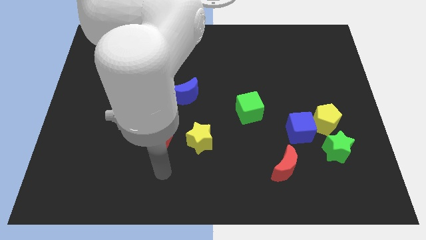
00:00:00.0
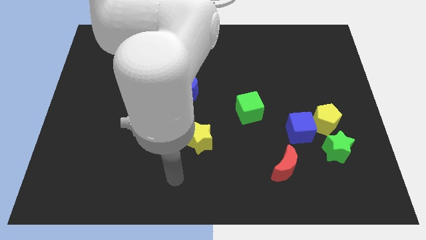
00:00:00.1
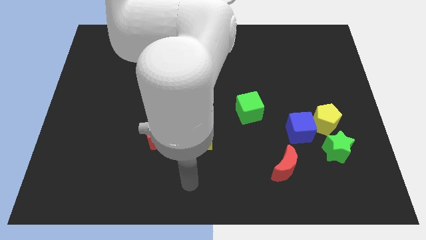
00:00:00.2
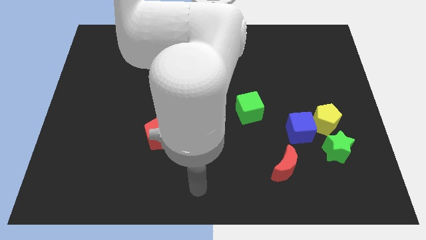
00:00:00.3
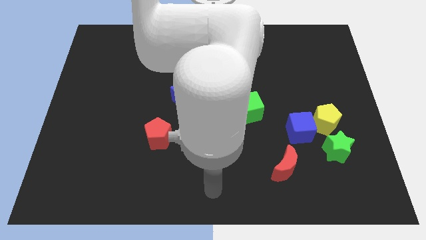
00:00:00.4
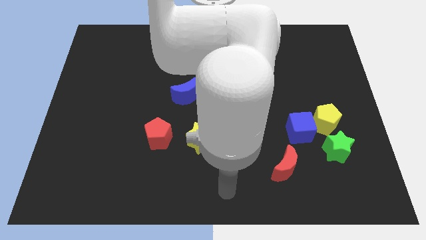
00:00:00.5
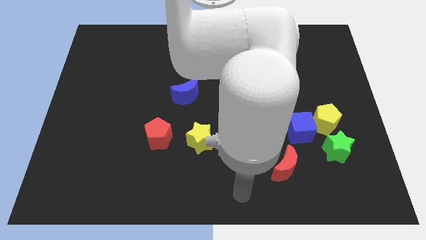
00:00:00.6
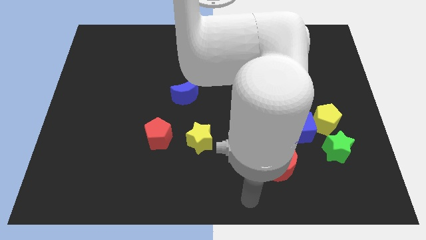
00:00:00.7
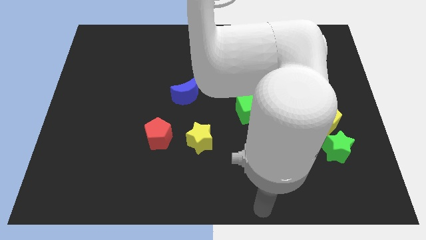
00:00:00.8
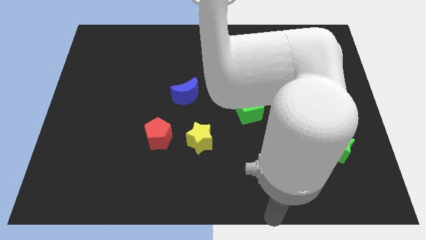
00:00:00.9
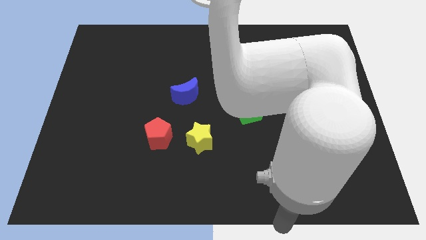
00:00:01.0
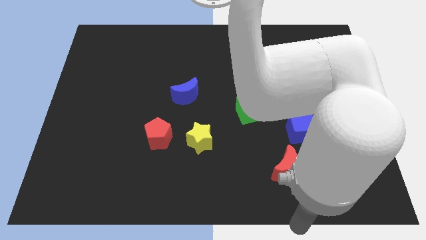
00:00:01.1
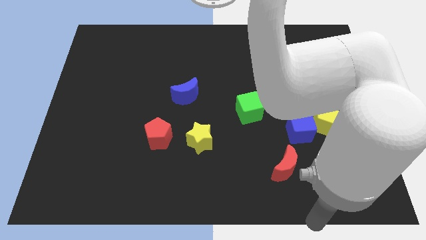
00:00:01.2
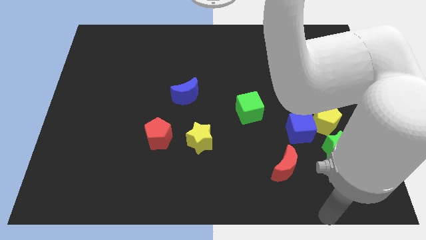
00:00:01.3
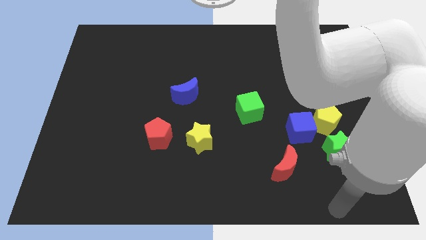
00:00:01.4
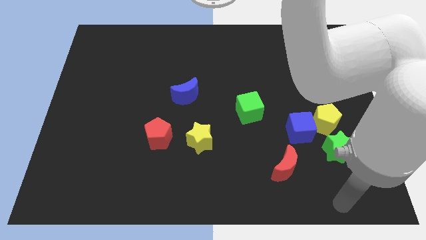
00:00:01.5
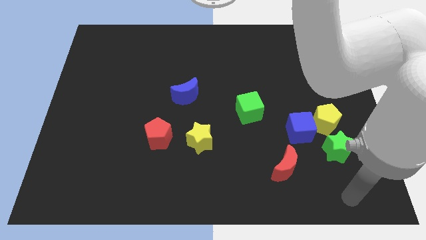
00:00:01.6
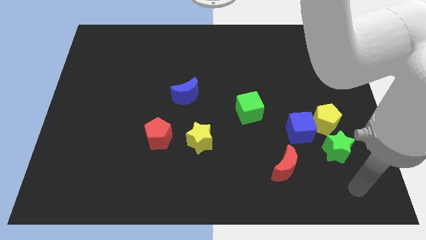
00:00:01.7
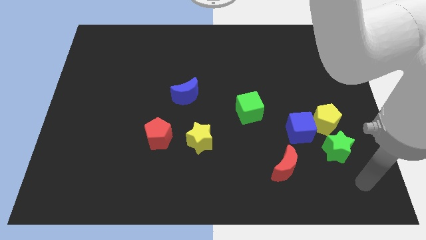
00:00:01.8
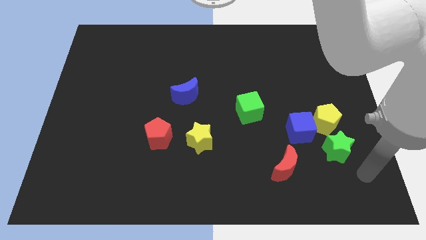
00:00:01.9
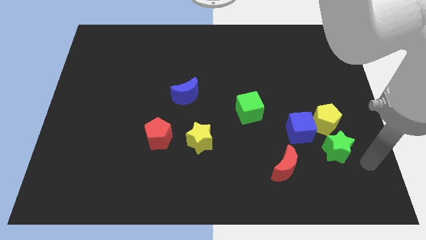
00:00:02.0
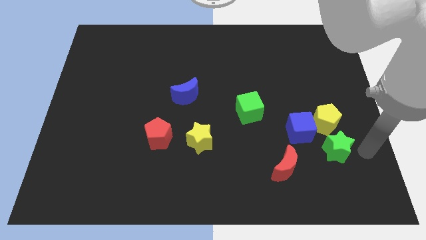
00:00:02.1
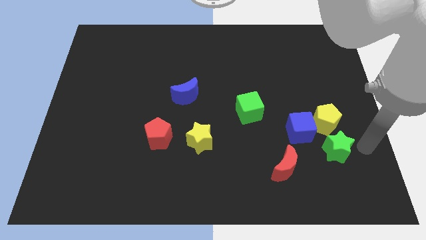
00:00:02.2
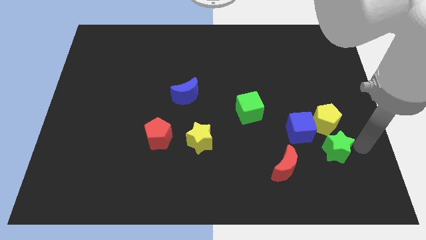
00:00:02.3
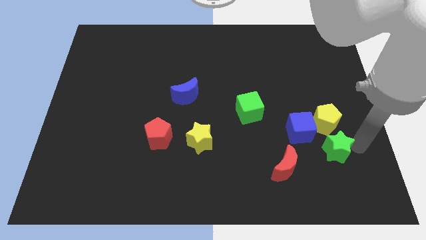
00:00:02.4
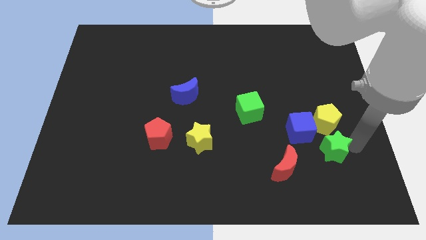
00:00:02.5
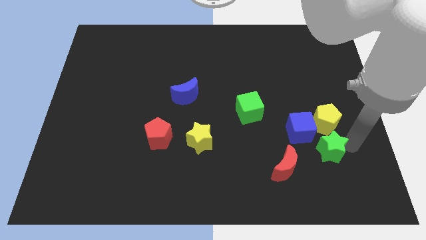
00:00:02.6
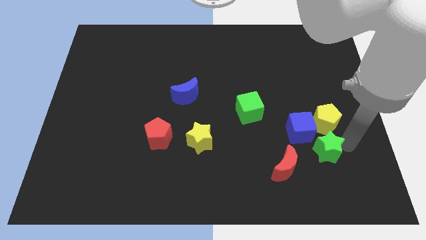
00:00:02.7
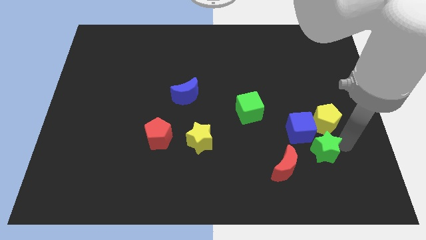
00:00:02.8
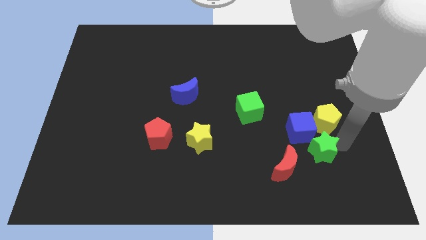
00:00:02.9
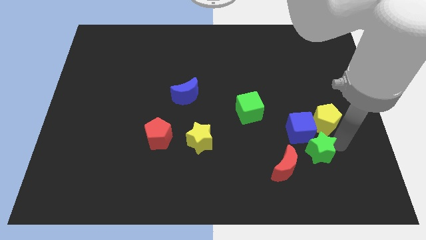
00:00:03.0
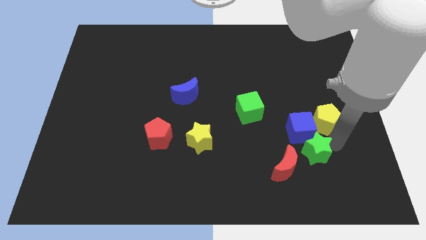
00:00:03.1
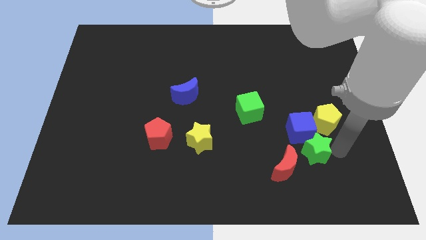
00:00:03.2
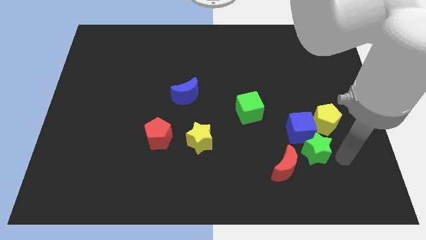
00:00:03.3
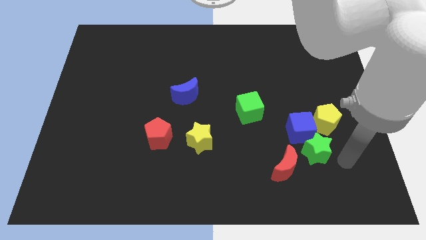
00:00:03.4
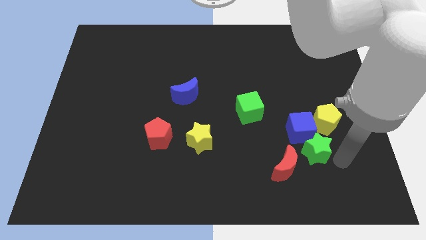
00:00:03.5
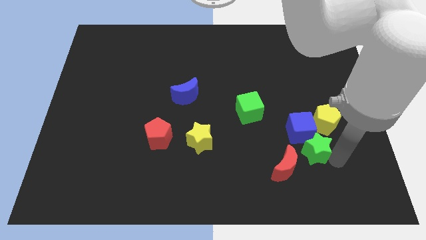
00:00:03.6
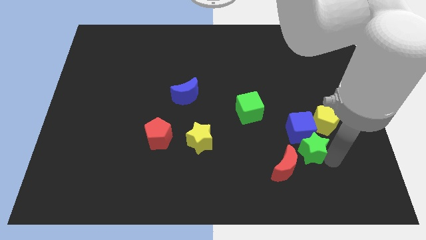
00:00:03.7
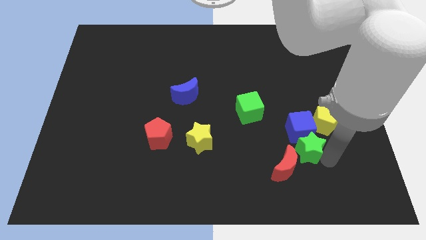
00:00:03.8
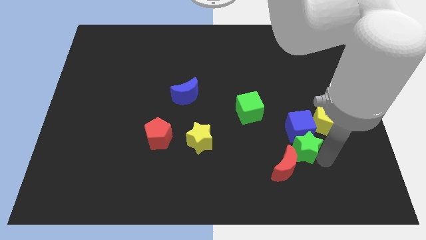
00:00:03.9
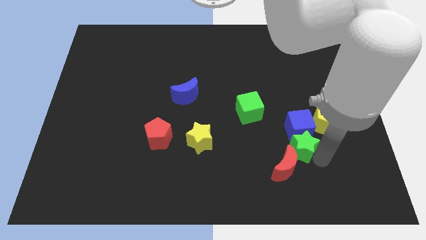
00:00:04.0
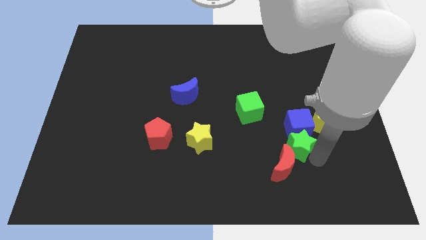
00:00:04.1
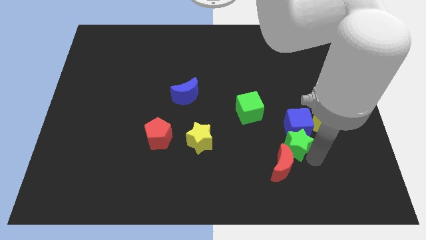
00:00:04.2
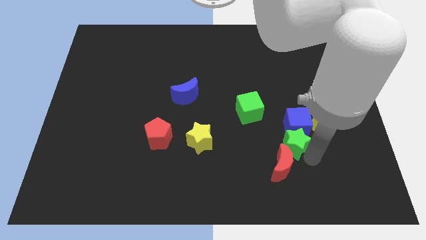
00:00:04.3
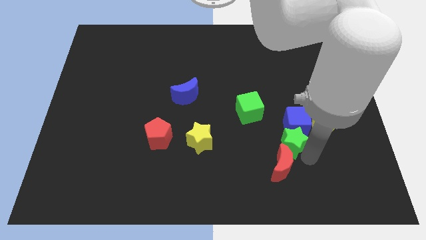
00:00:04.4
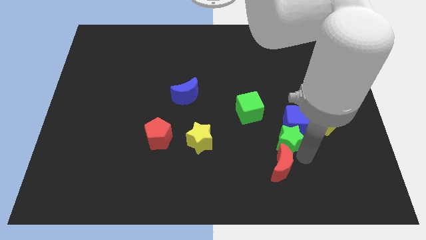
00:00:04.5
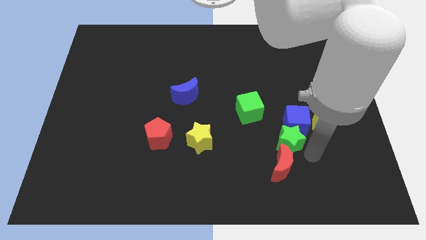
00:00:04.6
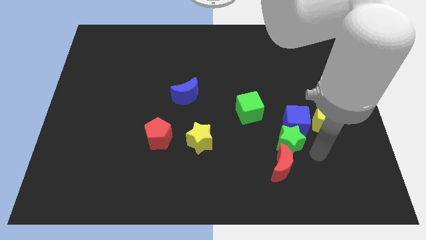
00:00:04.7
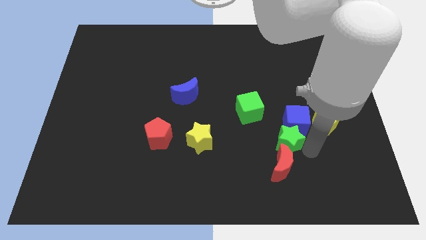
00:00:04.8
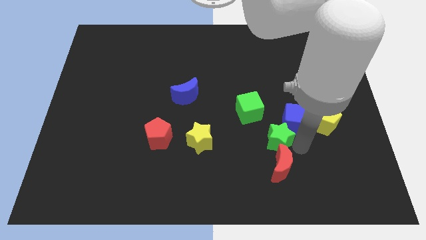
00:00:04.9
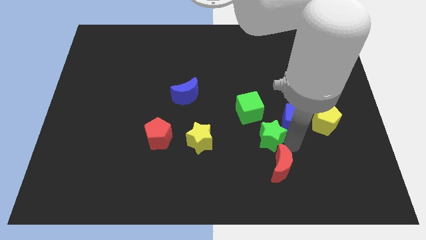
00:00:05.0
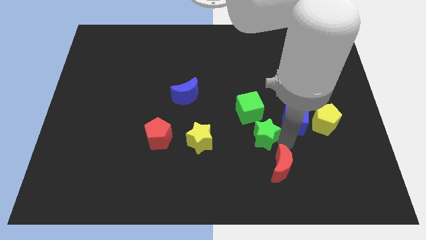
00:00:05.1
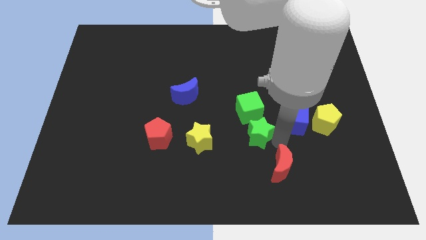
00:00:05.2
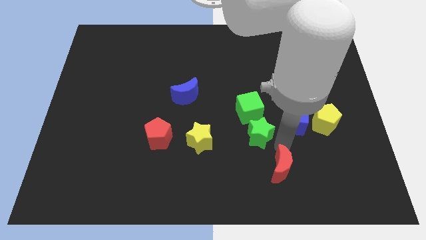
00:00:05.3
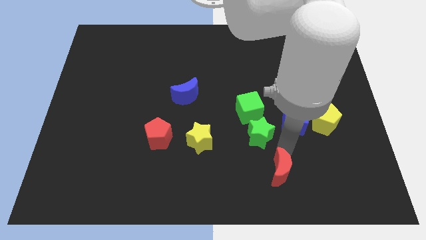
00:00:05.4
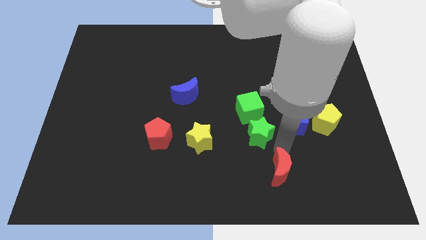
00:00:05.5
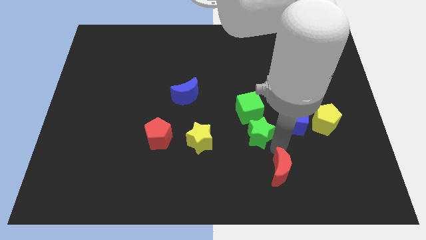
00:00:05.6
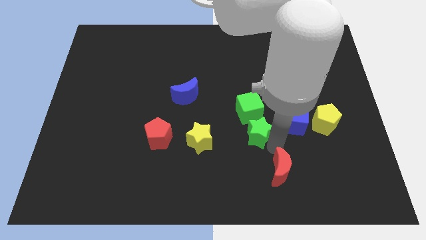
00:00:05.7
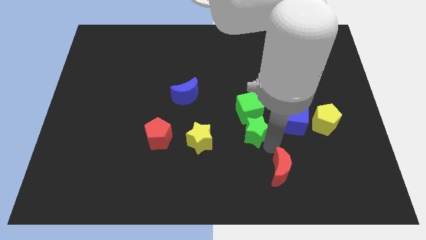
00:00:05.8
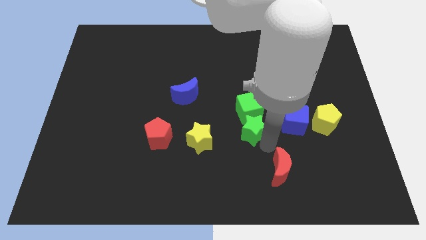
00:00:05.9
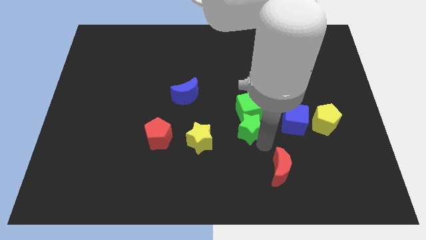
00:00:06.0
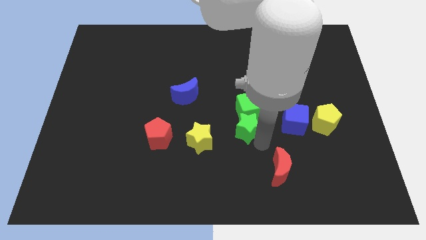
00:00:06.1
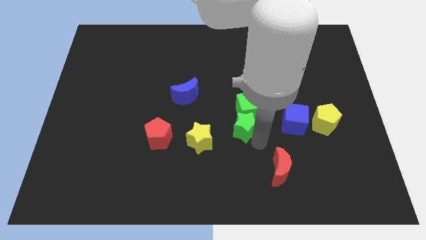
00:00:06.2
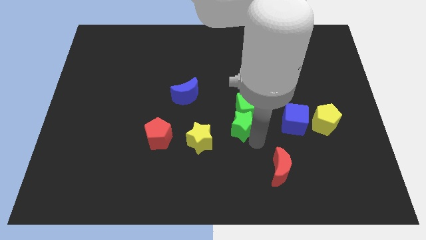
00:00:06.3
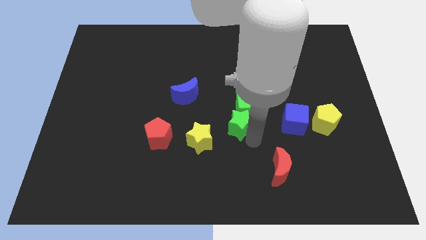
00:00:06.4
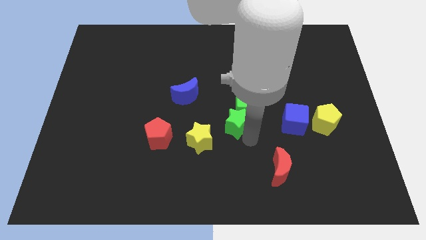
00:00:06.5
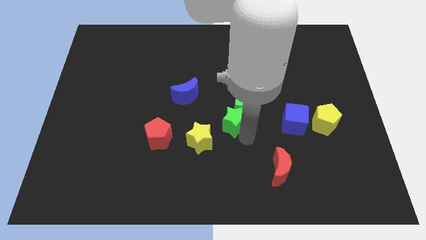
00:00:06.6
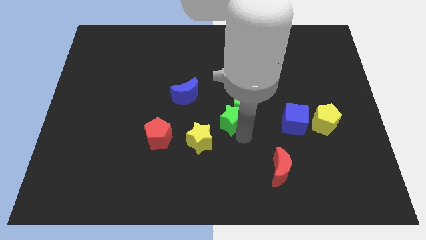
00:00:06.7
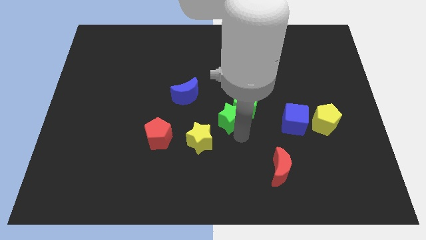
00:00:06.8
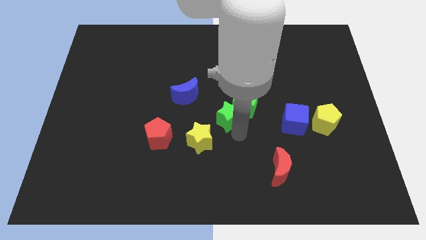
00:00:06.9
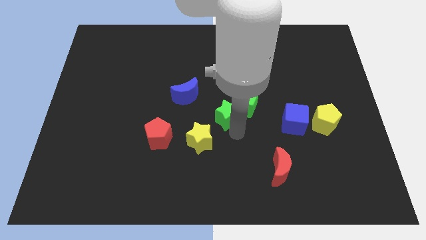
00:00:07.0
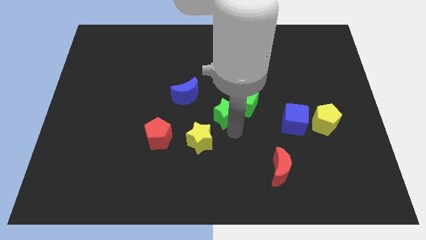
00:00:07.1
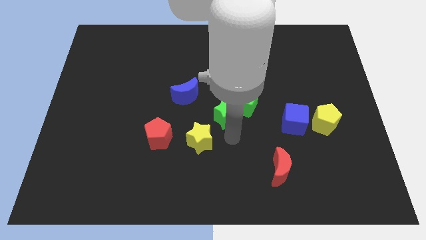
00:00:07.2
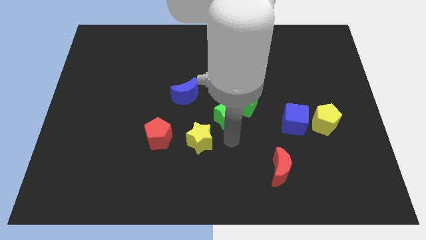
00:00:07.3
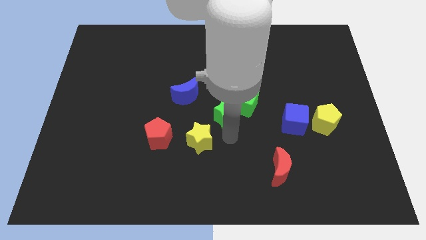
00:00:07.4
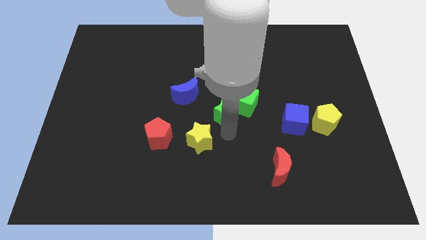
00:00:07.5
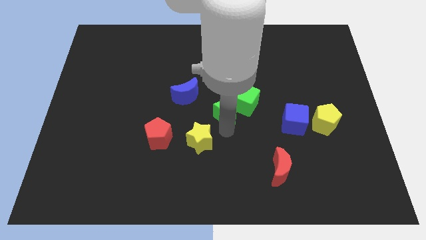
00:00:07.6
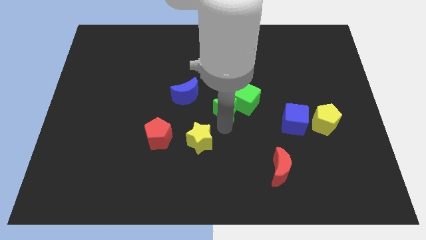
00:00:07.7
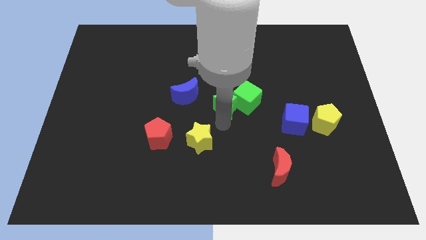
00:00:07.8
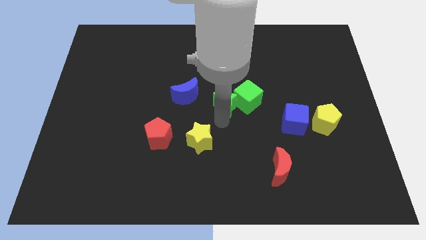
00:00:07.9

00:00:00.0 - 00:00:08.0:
move the green star to the top left side of the green cube
